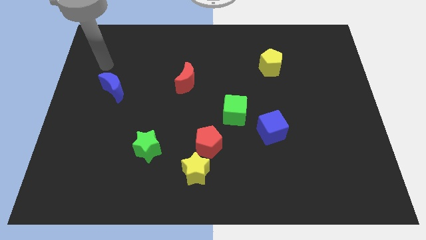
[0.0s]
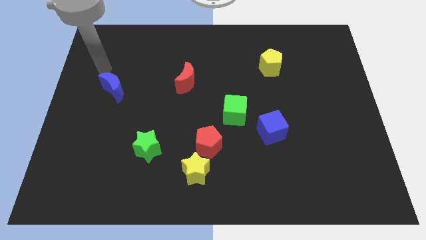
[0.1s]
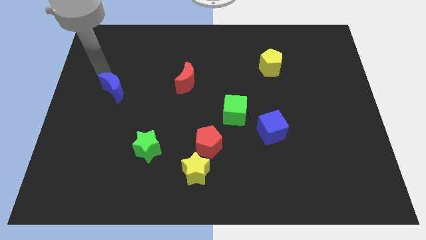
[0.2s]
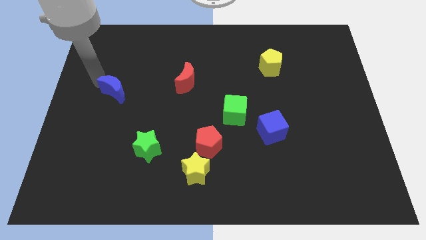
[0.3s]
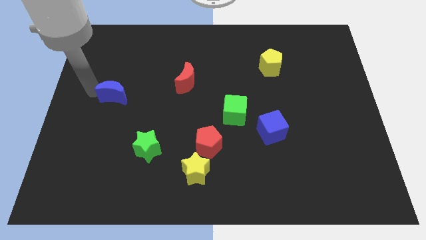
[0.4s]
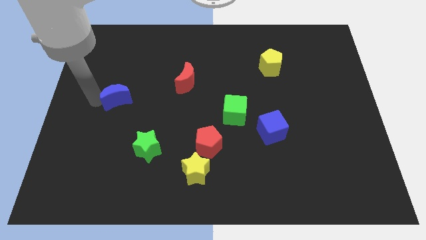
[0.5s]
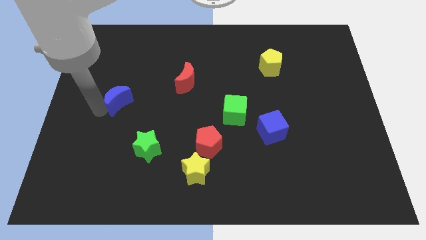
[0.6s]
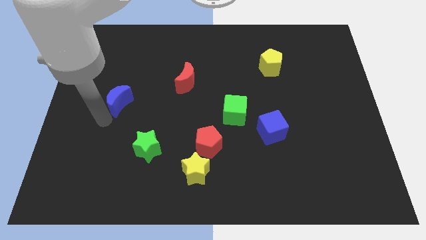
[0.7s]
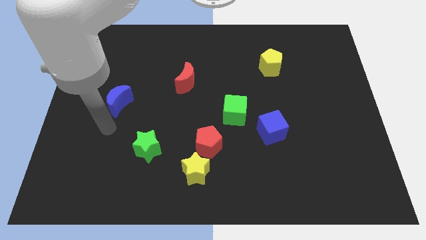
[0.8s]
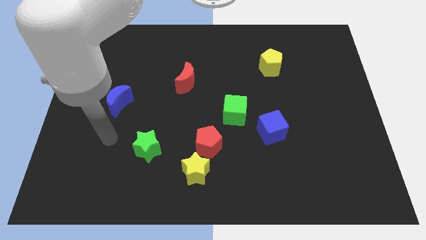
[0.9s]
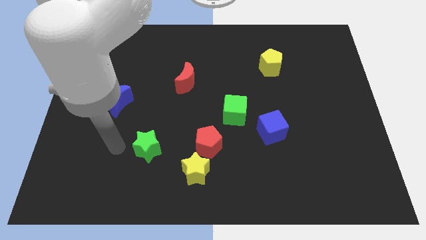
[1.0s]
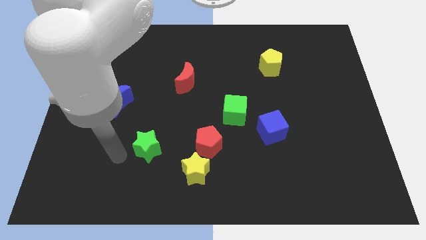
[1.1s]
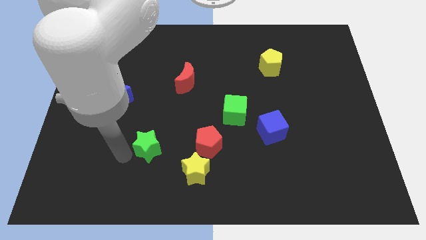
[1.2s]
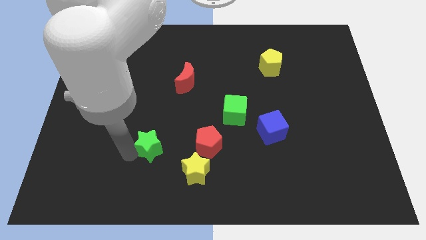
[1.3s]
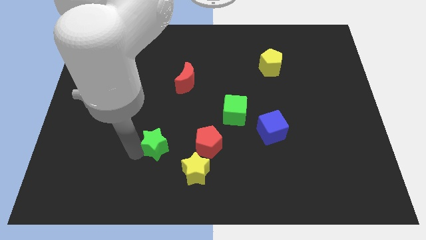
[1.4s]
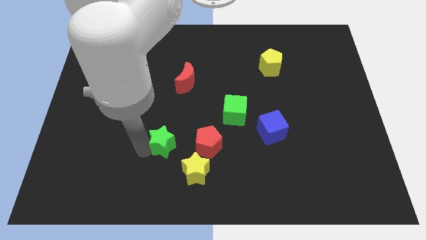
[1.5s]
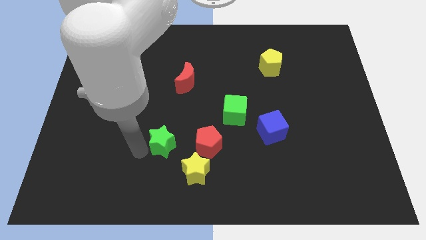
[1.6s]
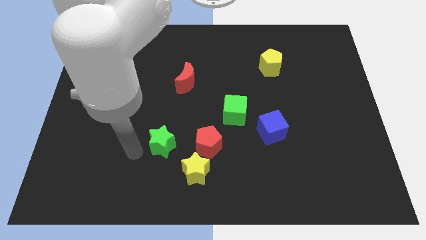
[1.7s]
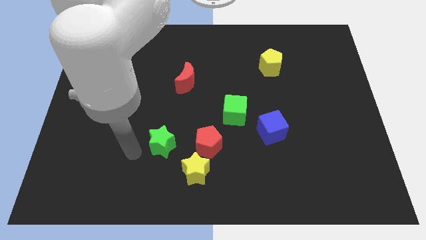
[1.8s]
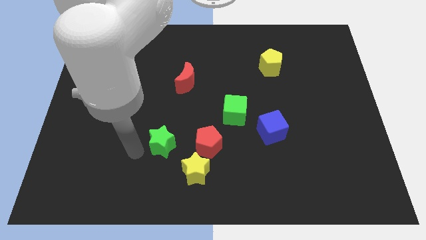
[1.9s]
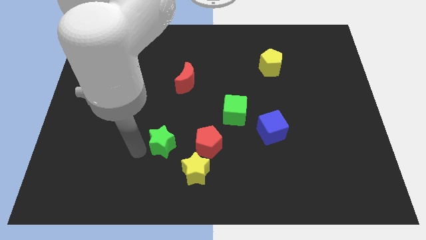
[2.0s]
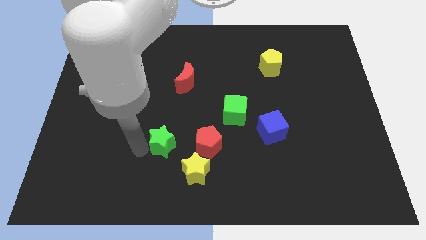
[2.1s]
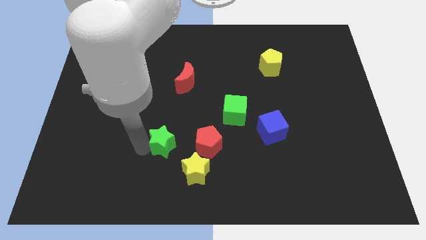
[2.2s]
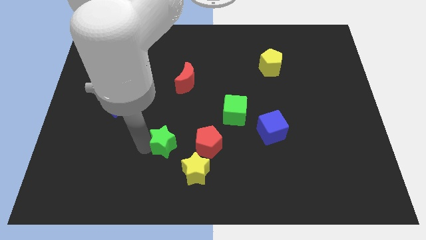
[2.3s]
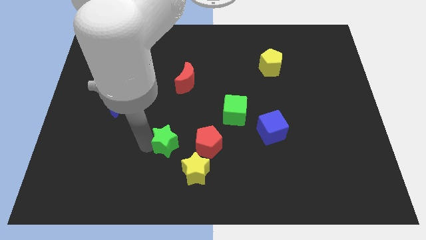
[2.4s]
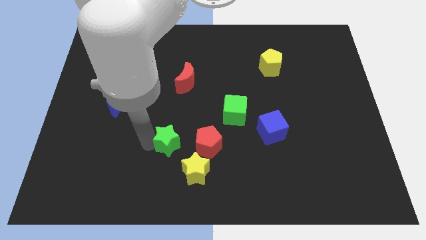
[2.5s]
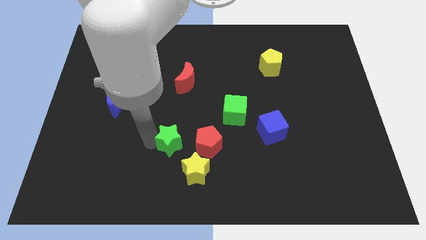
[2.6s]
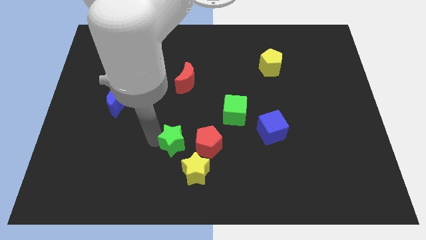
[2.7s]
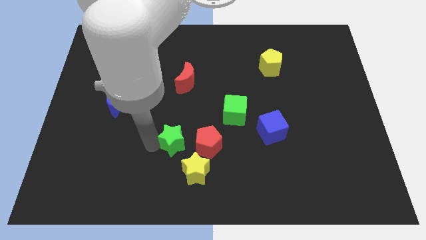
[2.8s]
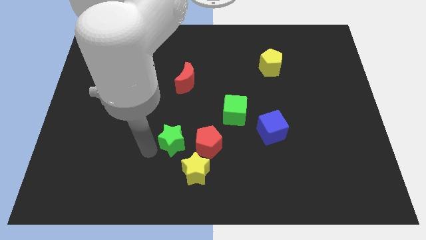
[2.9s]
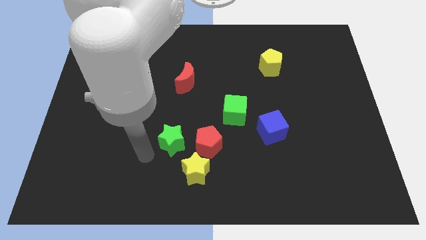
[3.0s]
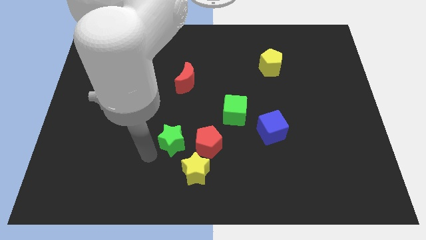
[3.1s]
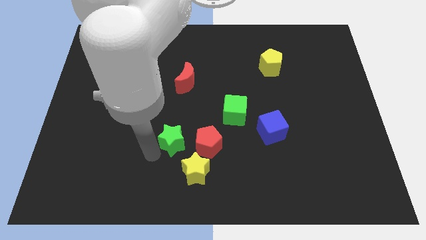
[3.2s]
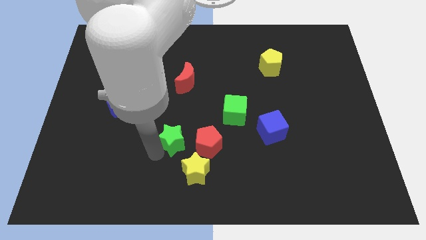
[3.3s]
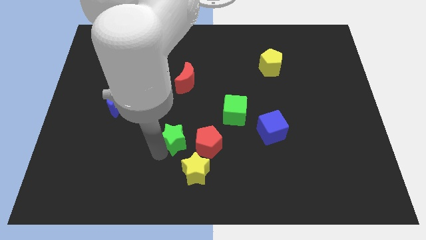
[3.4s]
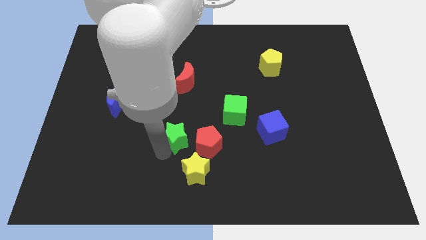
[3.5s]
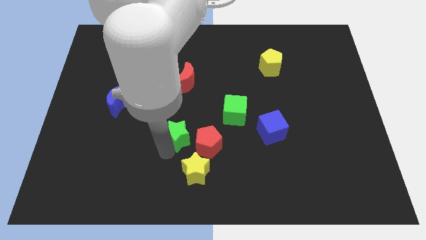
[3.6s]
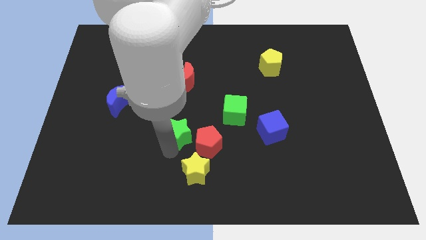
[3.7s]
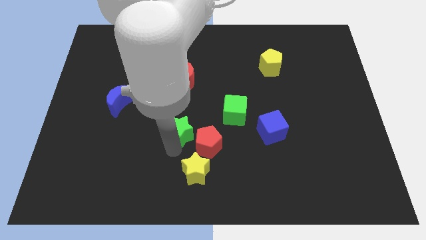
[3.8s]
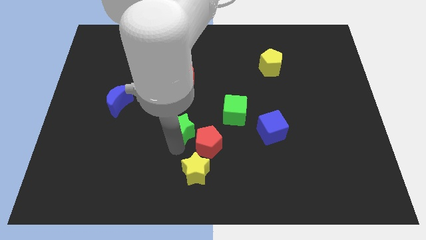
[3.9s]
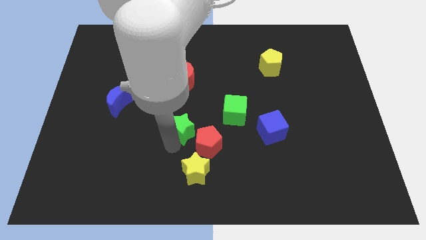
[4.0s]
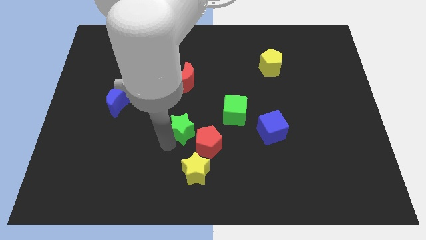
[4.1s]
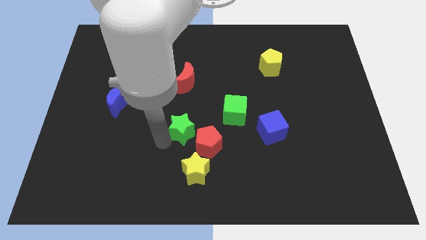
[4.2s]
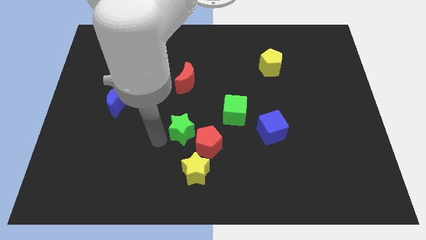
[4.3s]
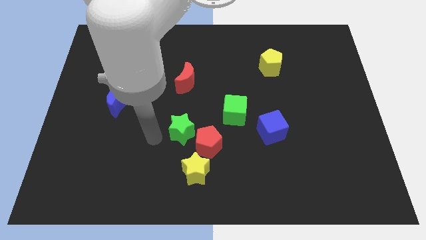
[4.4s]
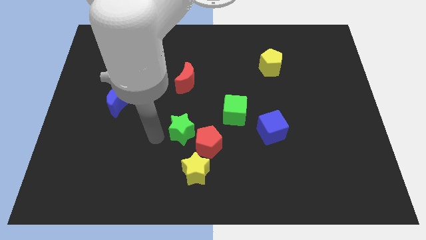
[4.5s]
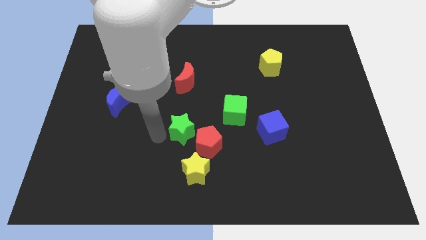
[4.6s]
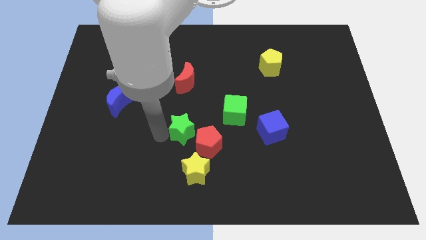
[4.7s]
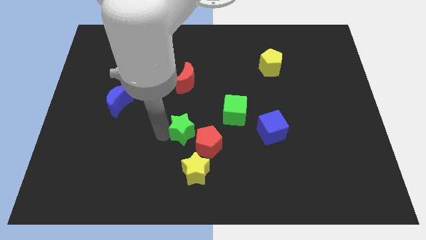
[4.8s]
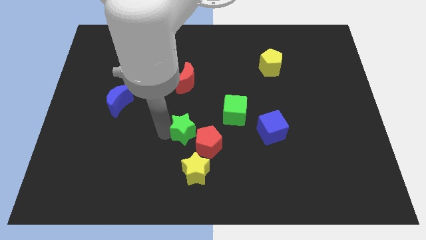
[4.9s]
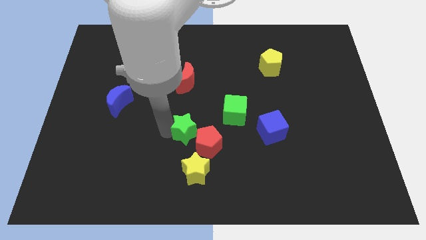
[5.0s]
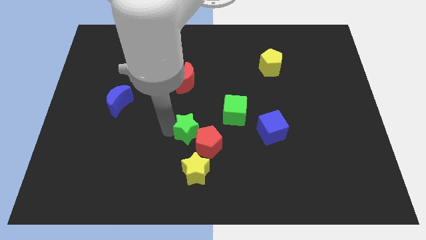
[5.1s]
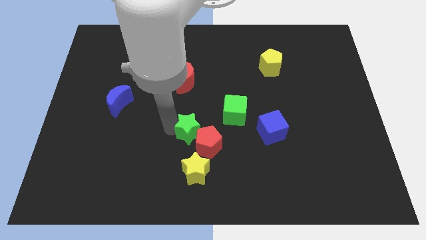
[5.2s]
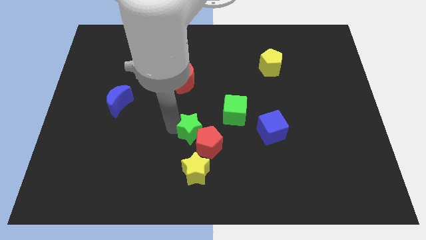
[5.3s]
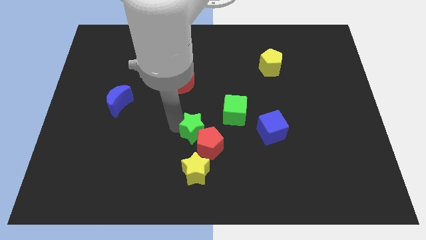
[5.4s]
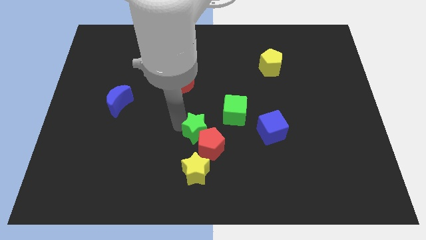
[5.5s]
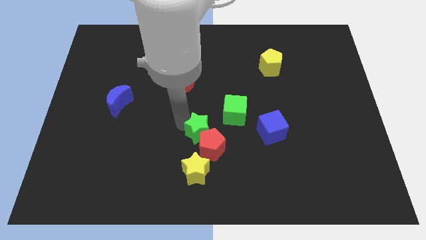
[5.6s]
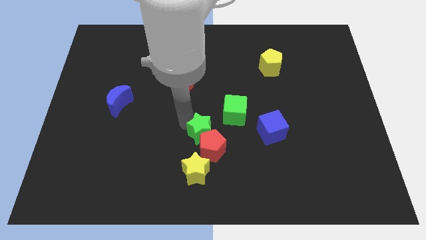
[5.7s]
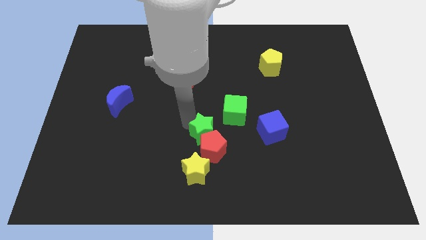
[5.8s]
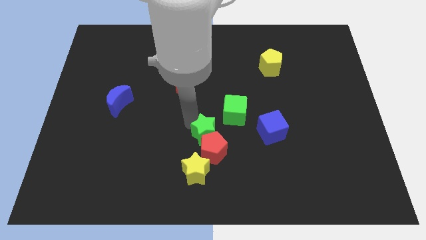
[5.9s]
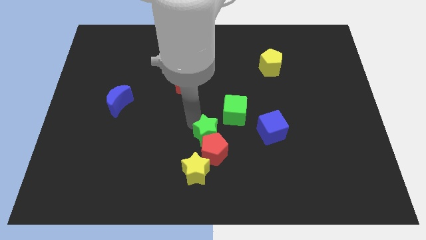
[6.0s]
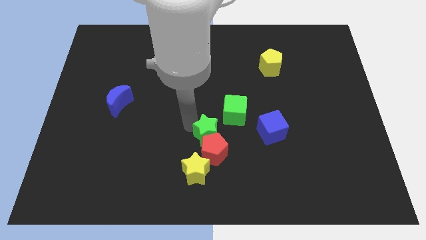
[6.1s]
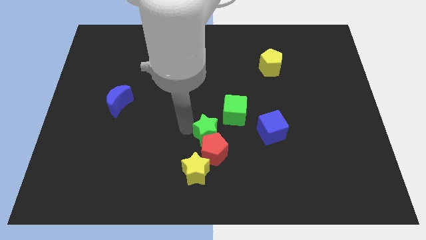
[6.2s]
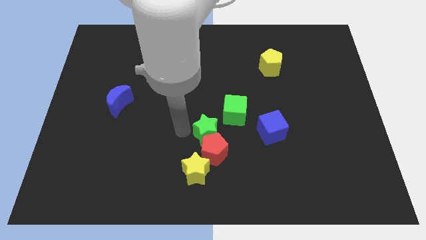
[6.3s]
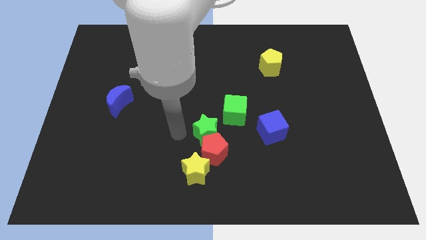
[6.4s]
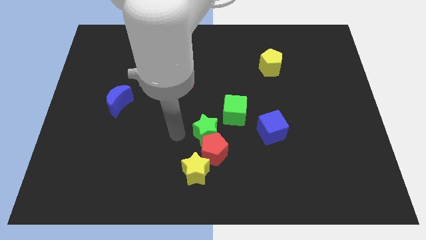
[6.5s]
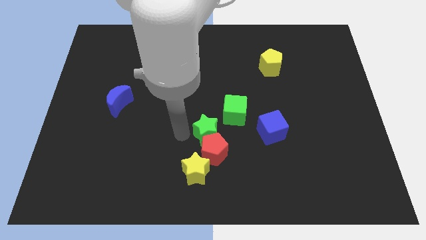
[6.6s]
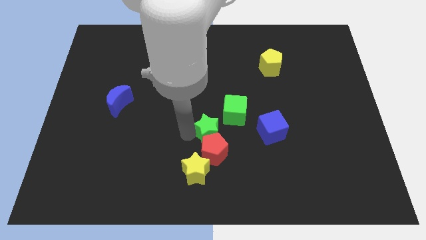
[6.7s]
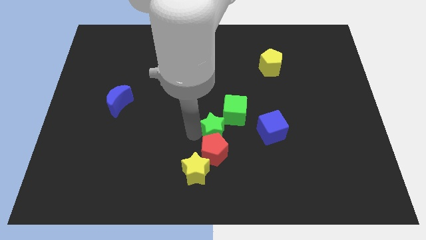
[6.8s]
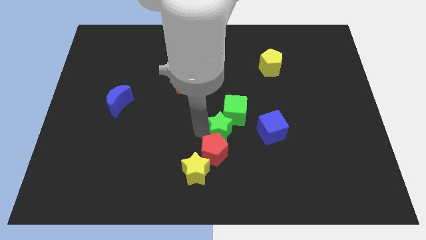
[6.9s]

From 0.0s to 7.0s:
push the green star to the bottom of the green cube
